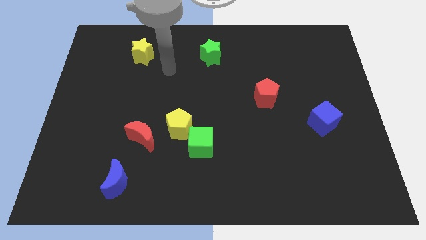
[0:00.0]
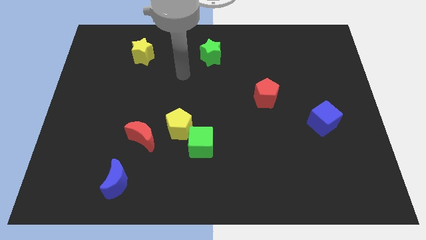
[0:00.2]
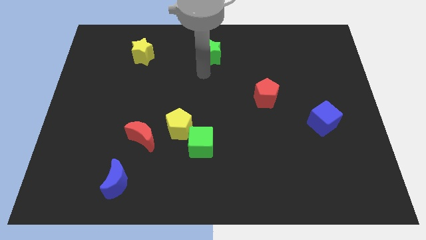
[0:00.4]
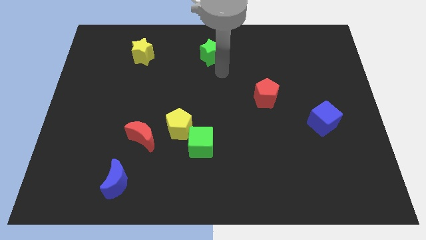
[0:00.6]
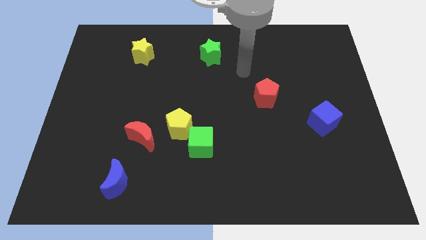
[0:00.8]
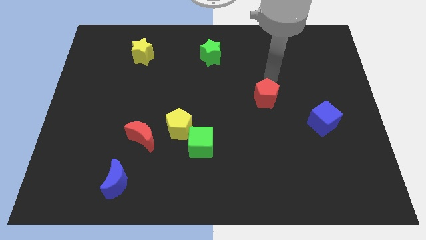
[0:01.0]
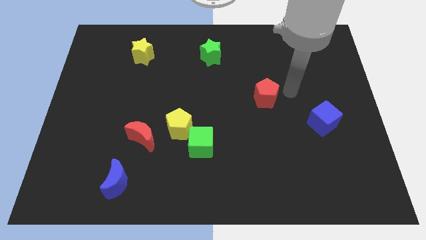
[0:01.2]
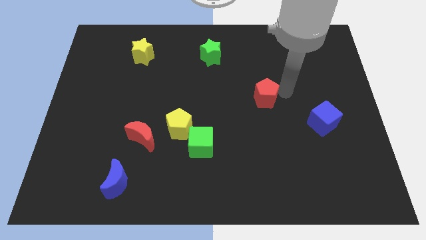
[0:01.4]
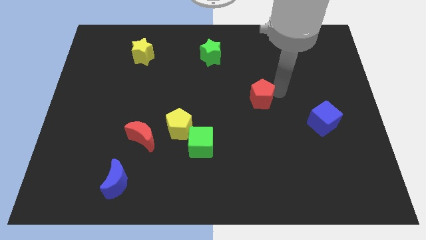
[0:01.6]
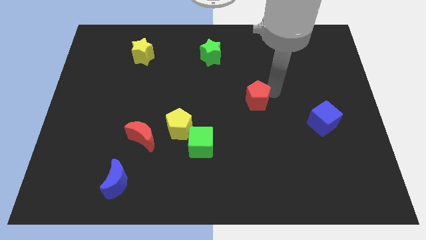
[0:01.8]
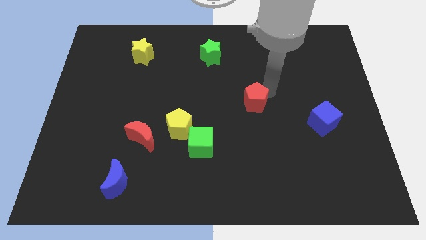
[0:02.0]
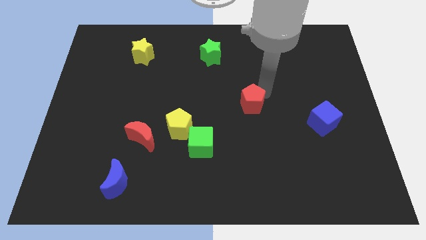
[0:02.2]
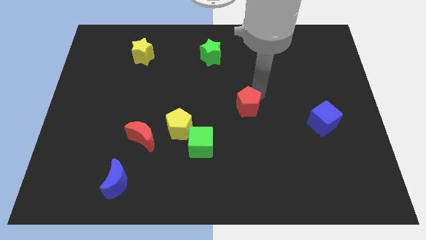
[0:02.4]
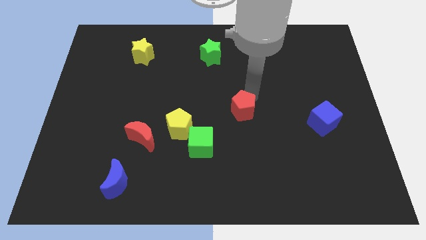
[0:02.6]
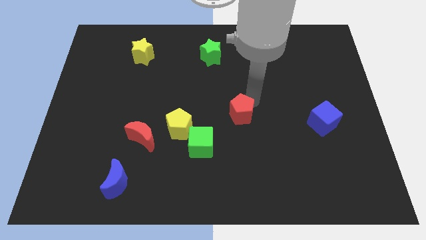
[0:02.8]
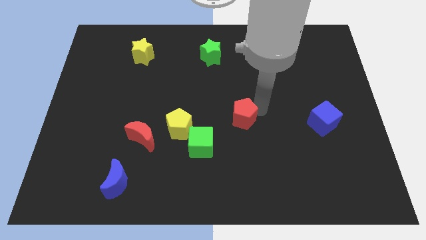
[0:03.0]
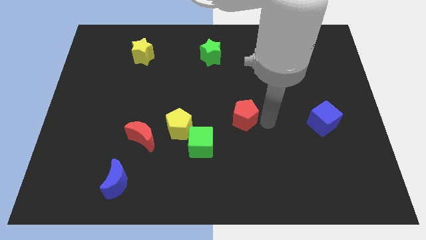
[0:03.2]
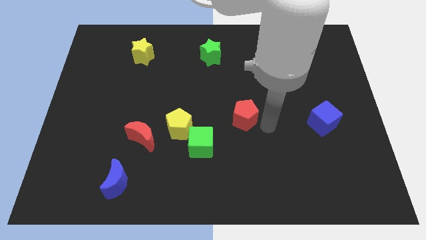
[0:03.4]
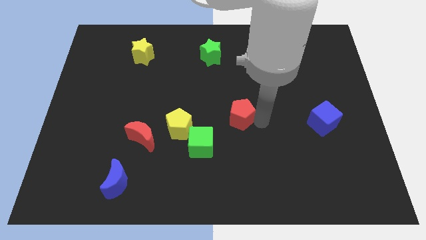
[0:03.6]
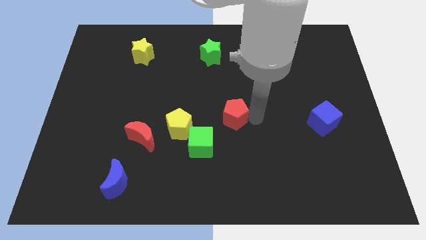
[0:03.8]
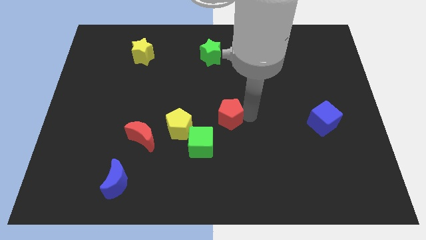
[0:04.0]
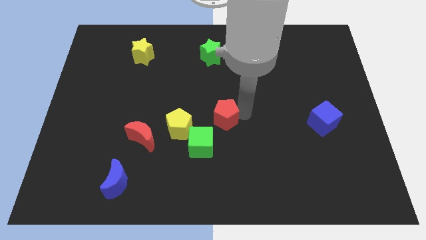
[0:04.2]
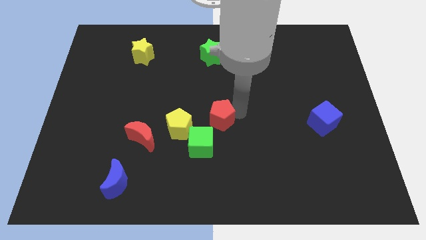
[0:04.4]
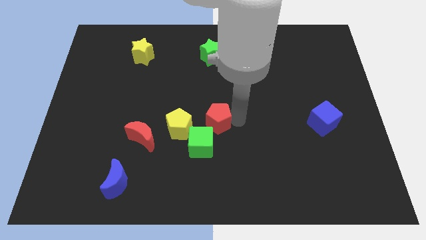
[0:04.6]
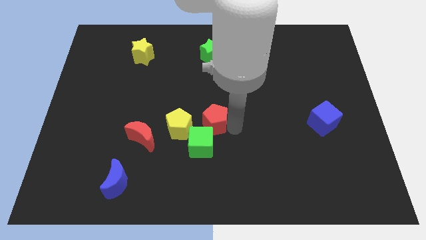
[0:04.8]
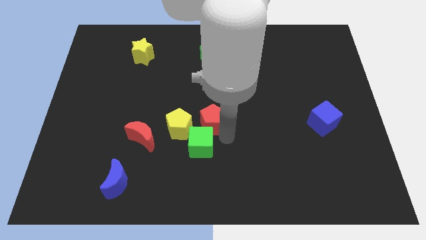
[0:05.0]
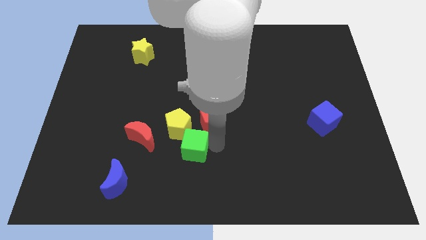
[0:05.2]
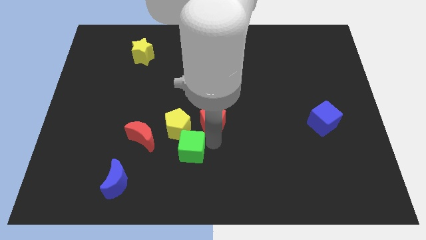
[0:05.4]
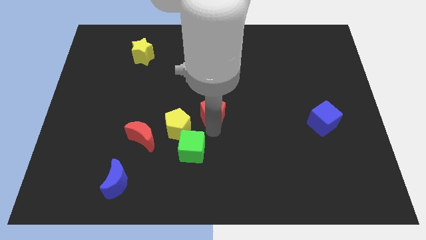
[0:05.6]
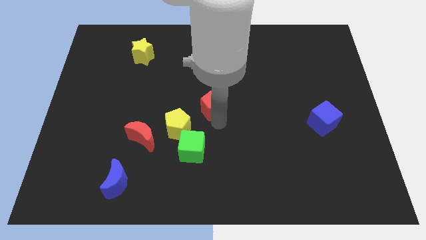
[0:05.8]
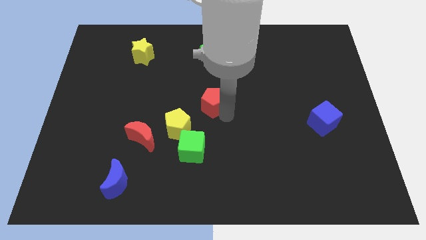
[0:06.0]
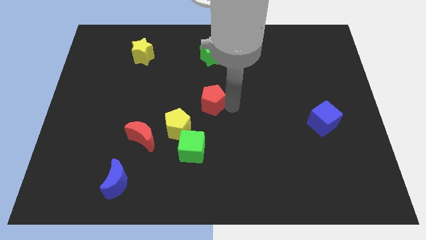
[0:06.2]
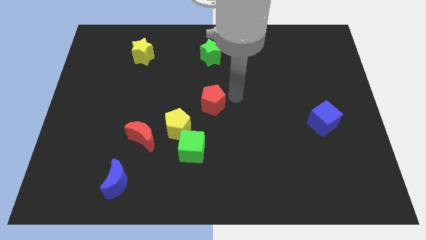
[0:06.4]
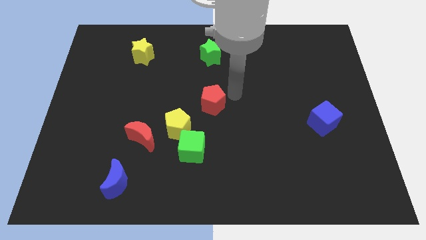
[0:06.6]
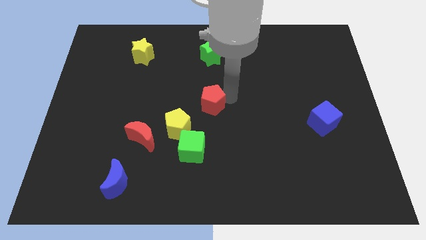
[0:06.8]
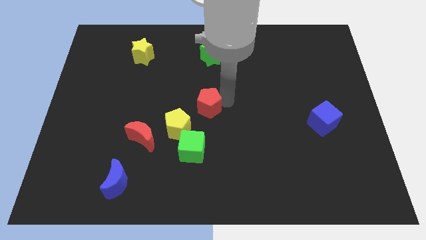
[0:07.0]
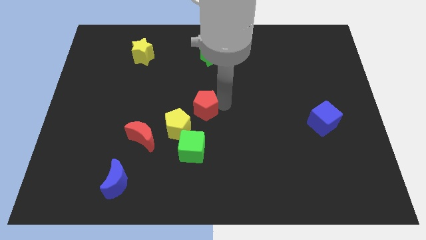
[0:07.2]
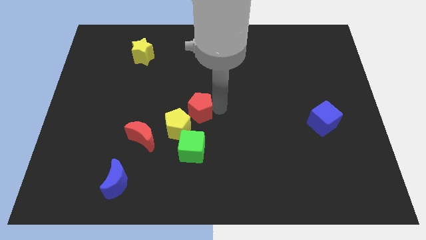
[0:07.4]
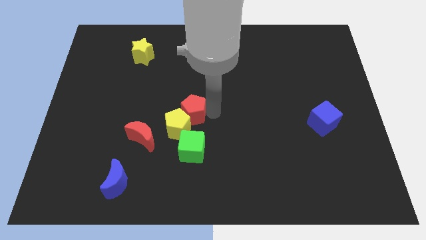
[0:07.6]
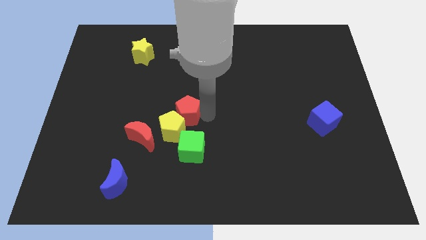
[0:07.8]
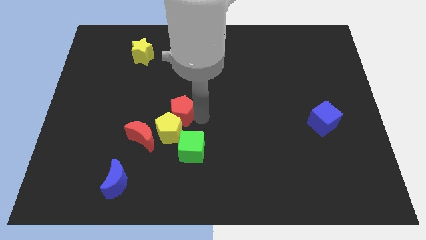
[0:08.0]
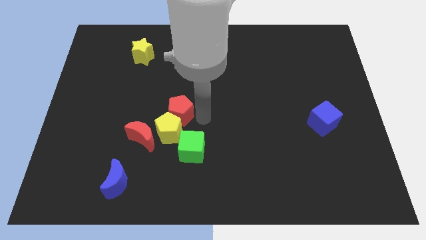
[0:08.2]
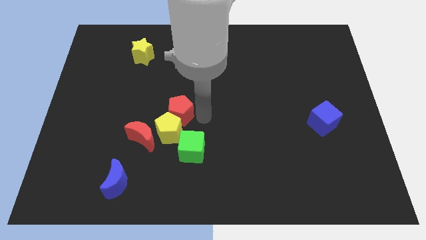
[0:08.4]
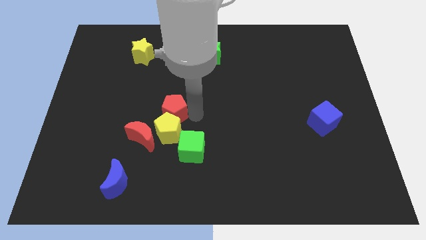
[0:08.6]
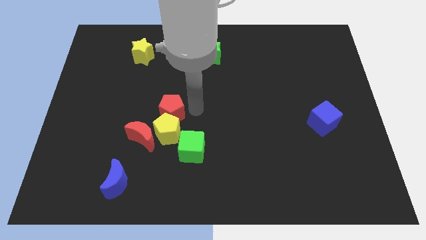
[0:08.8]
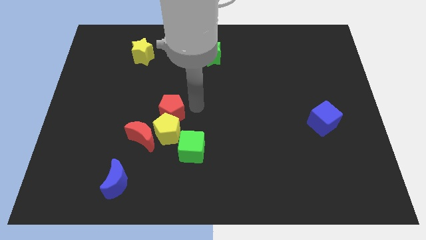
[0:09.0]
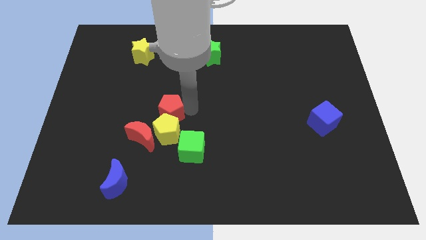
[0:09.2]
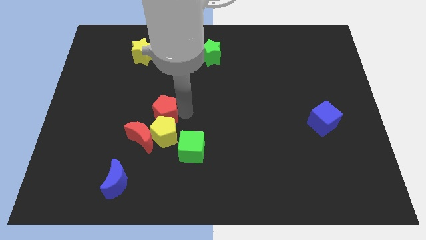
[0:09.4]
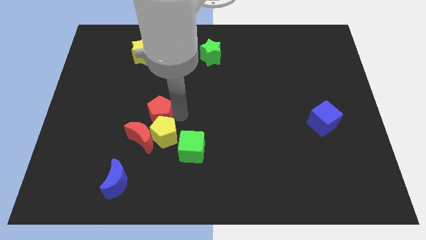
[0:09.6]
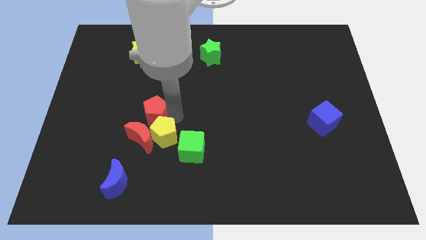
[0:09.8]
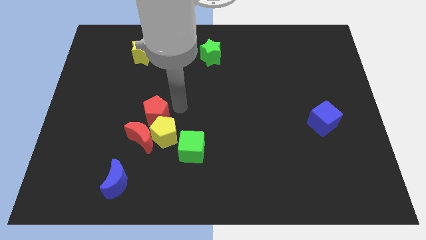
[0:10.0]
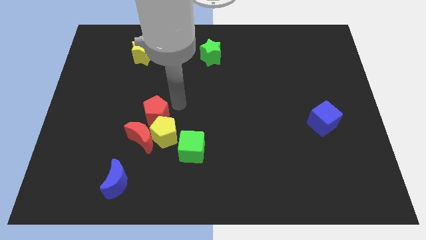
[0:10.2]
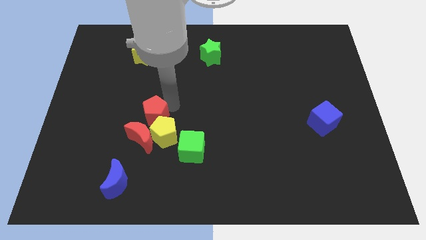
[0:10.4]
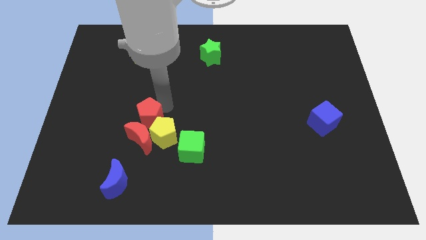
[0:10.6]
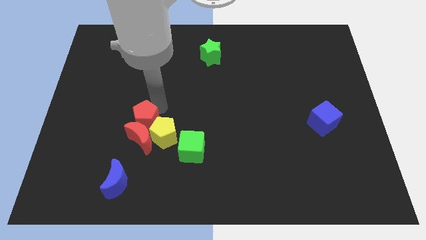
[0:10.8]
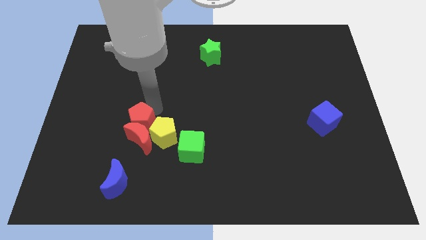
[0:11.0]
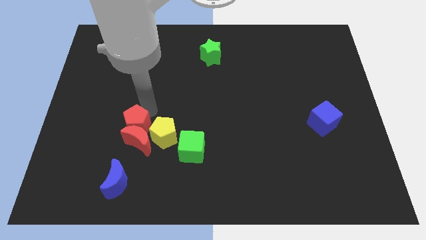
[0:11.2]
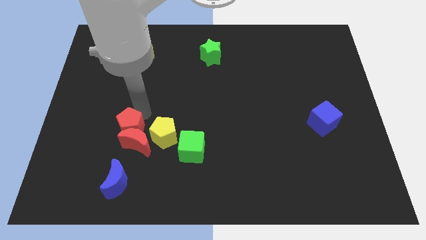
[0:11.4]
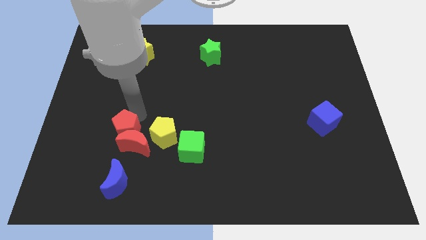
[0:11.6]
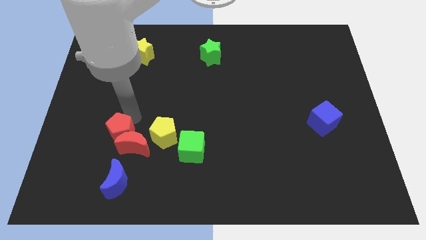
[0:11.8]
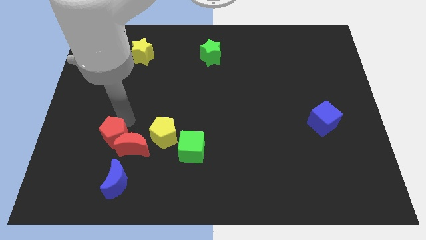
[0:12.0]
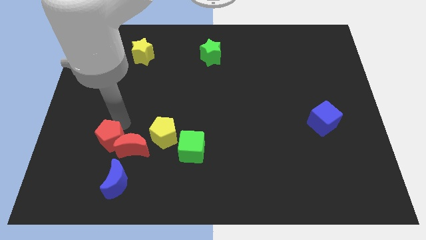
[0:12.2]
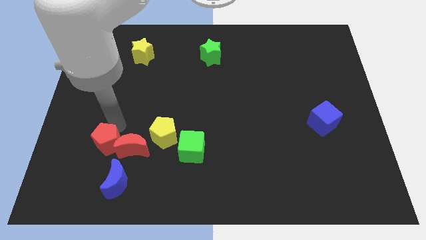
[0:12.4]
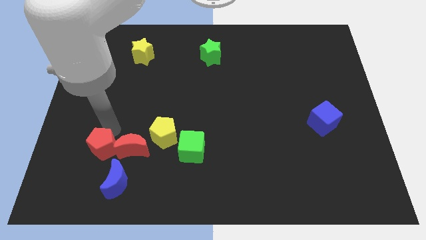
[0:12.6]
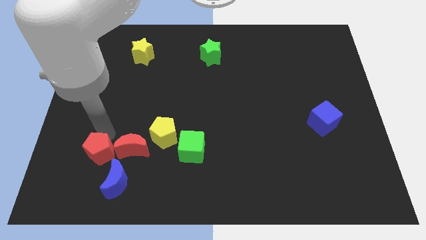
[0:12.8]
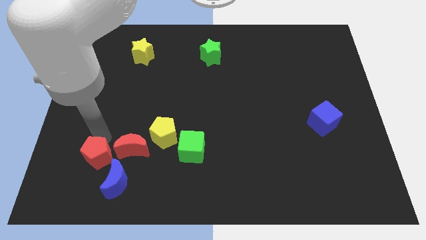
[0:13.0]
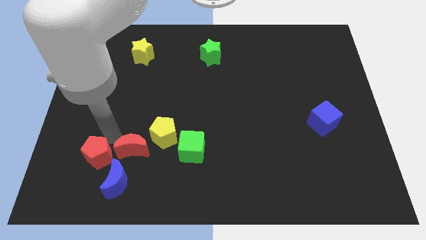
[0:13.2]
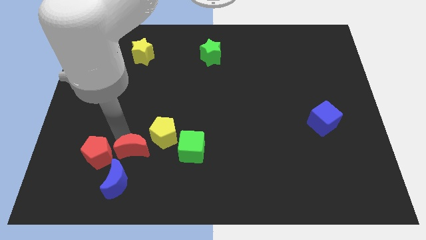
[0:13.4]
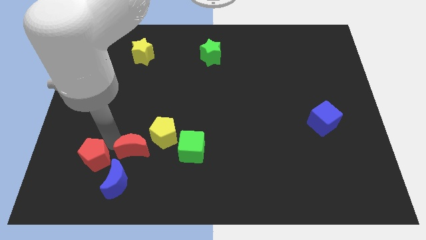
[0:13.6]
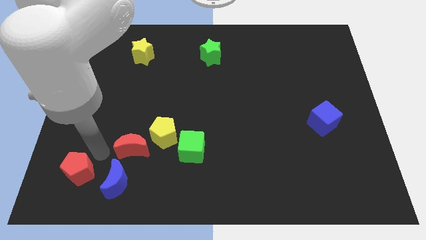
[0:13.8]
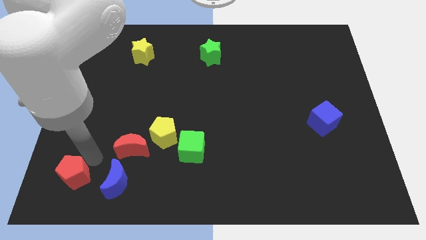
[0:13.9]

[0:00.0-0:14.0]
push the red pentagon to the bottom left
